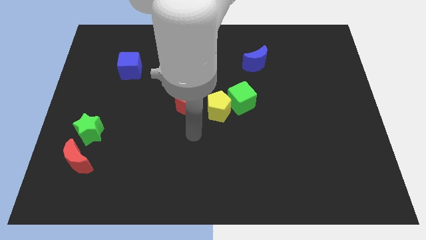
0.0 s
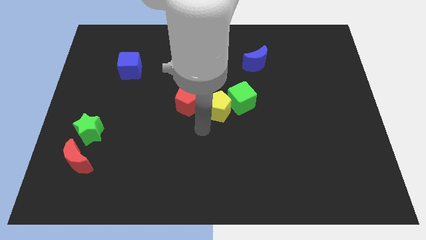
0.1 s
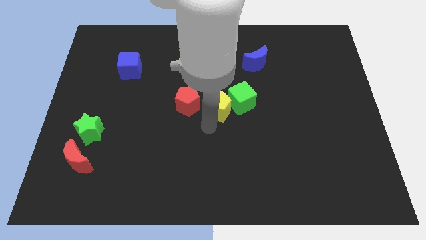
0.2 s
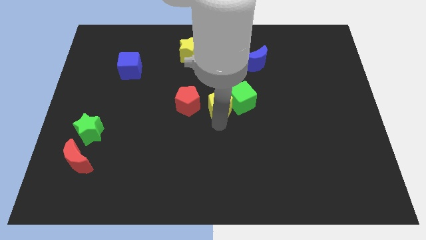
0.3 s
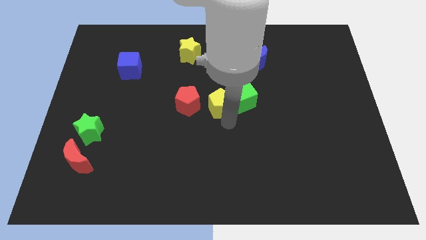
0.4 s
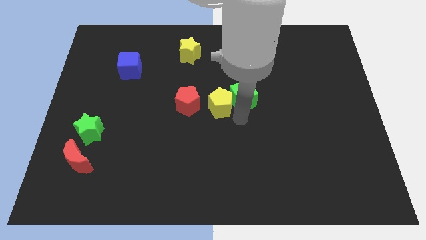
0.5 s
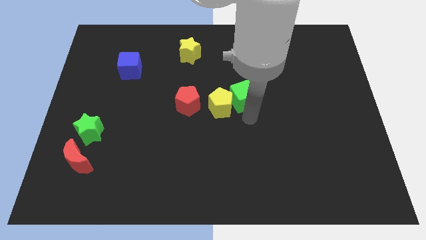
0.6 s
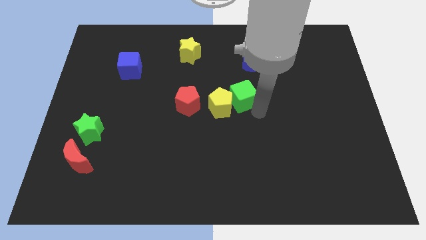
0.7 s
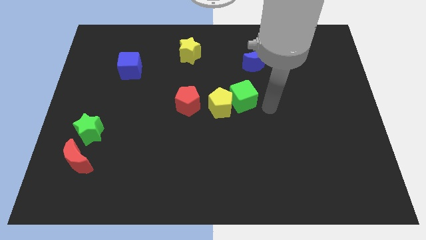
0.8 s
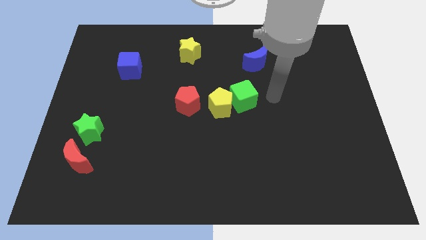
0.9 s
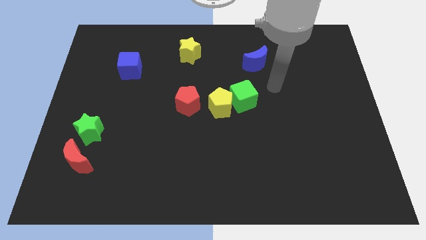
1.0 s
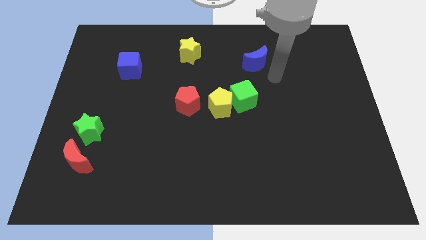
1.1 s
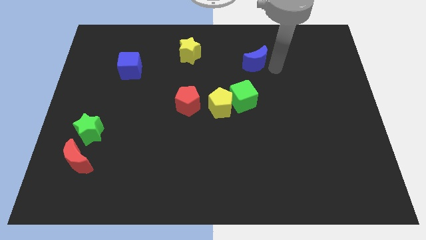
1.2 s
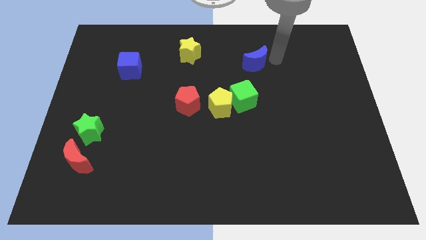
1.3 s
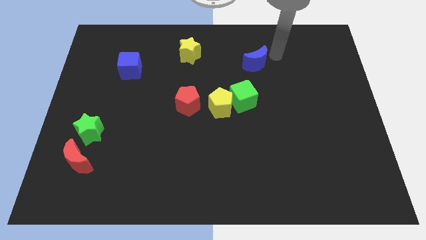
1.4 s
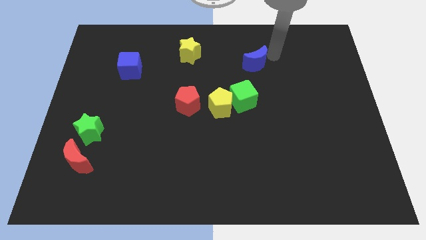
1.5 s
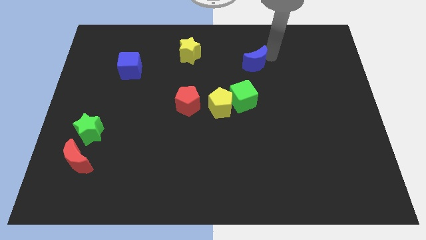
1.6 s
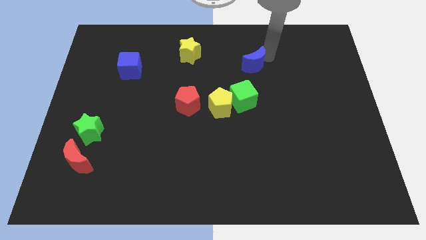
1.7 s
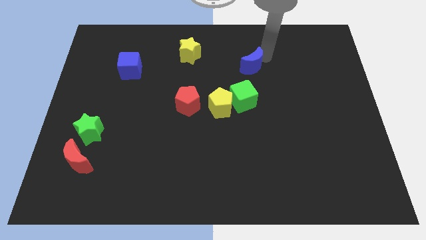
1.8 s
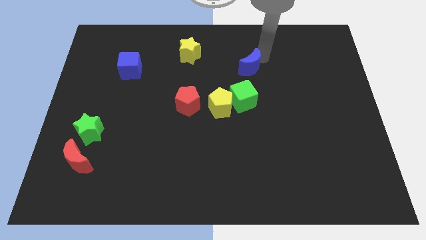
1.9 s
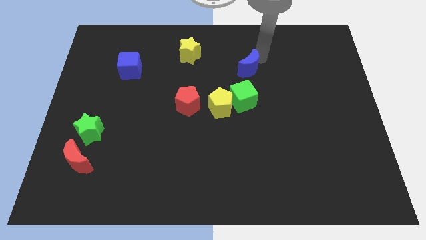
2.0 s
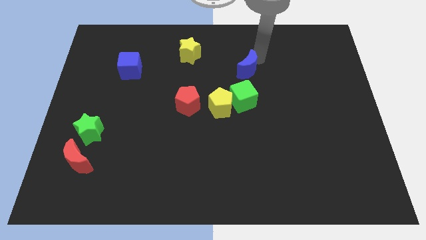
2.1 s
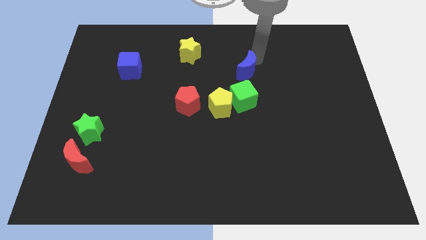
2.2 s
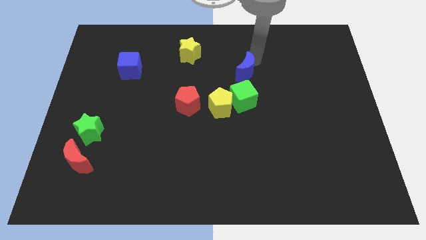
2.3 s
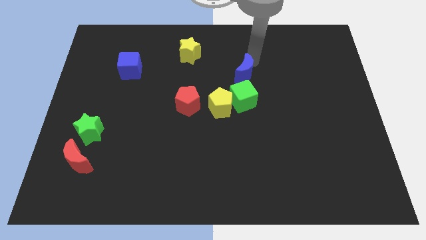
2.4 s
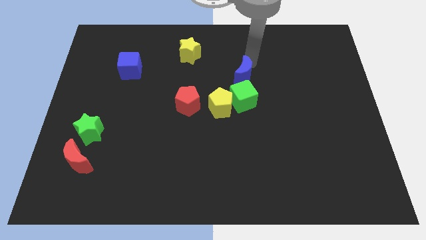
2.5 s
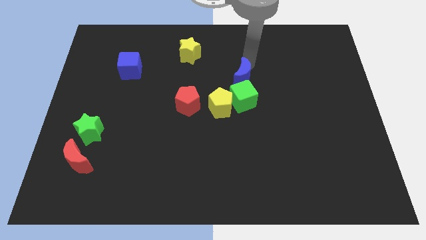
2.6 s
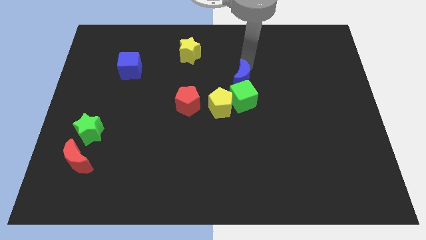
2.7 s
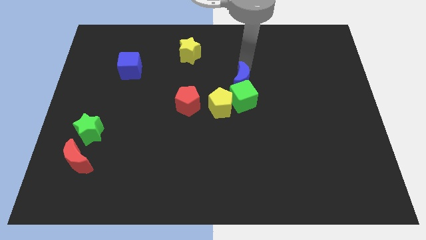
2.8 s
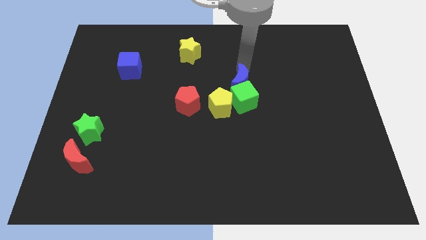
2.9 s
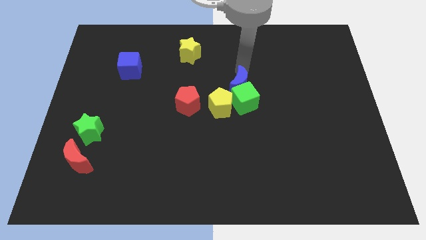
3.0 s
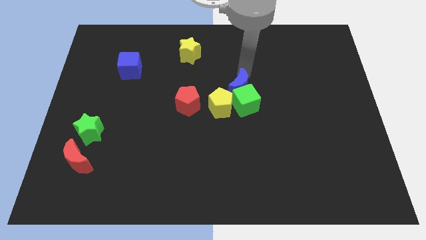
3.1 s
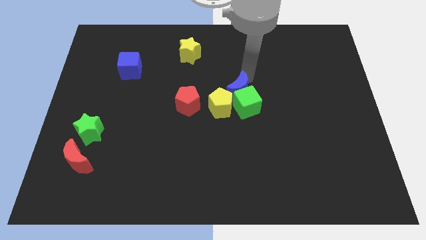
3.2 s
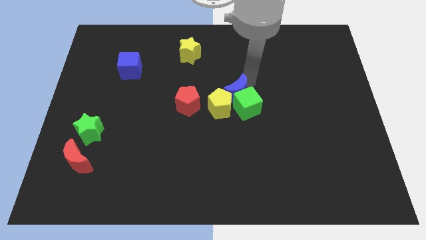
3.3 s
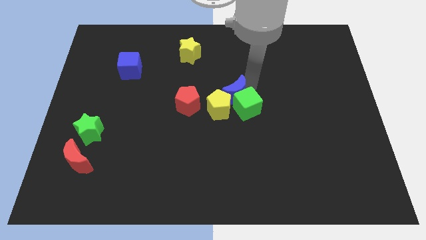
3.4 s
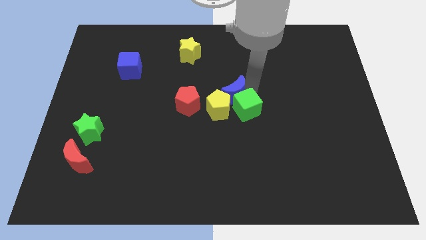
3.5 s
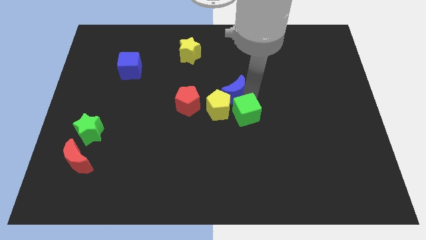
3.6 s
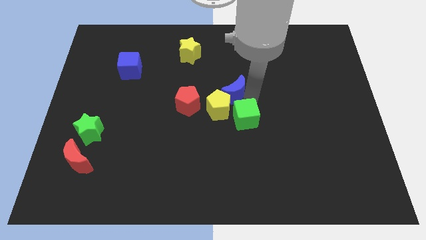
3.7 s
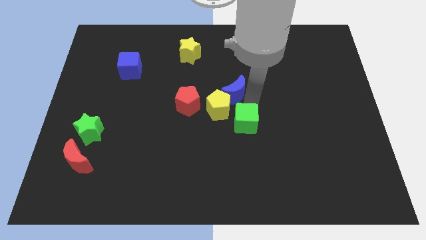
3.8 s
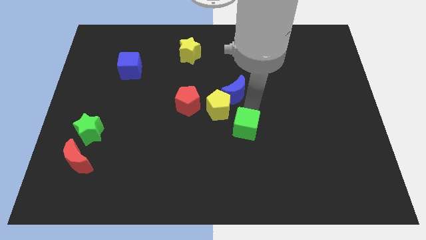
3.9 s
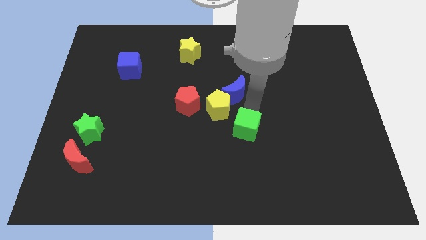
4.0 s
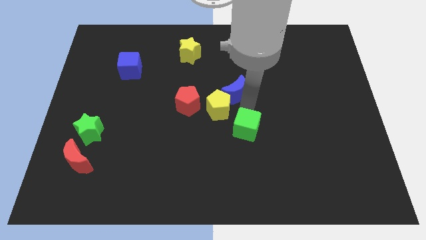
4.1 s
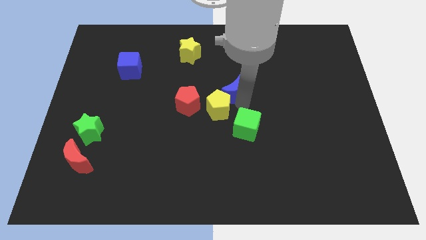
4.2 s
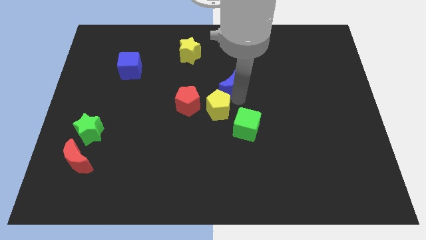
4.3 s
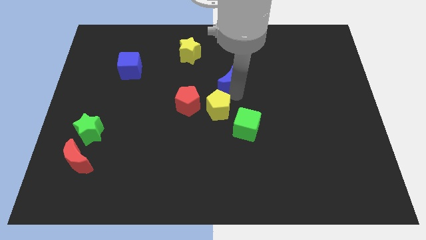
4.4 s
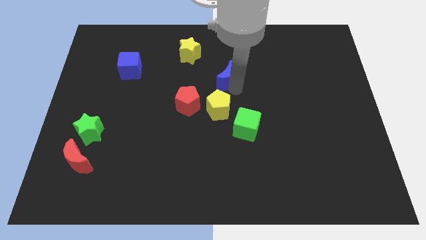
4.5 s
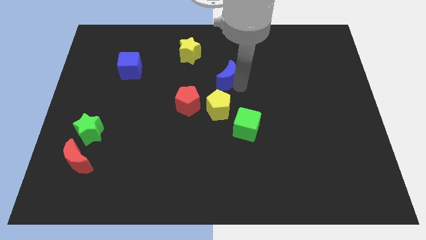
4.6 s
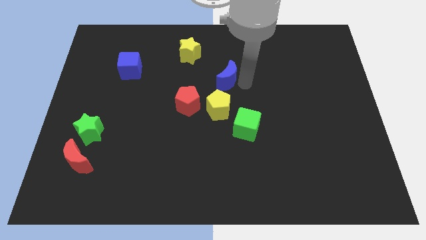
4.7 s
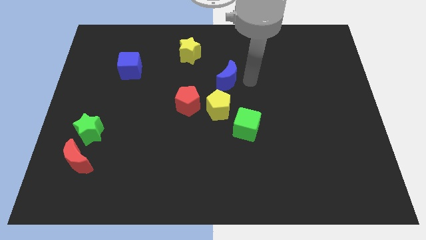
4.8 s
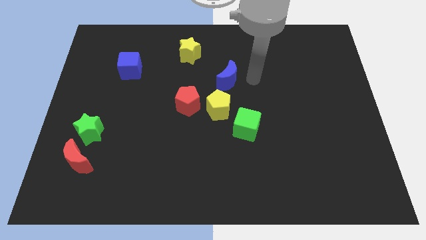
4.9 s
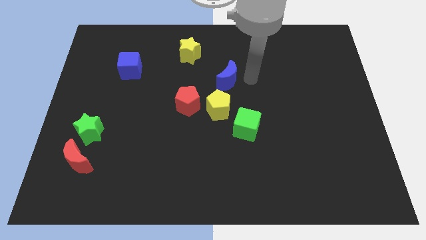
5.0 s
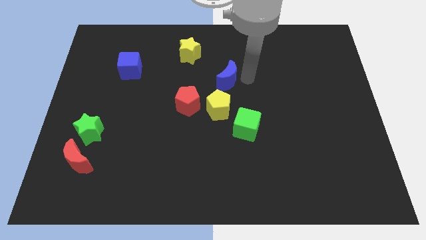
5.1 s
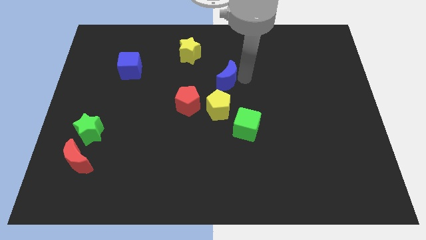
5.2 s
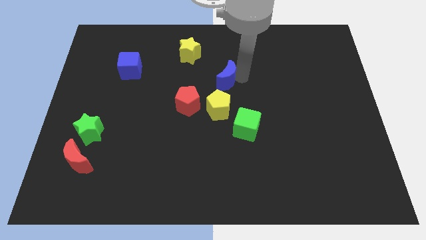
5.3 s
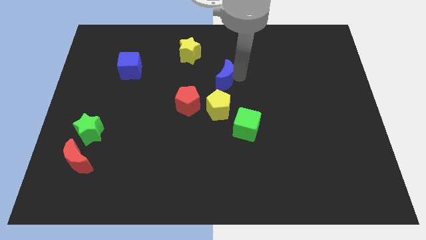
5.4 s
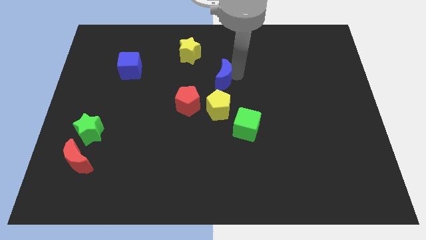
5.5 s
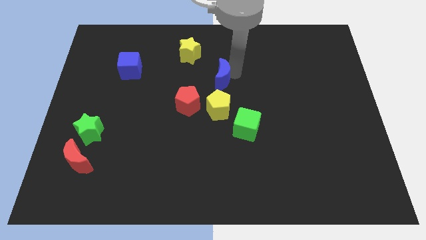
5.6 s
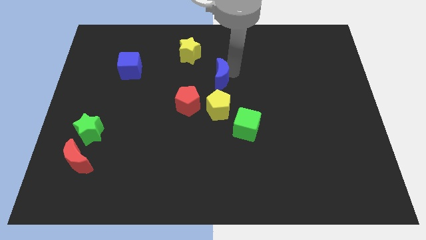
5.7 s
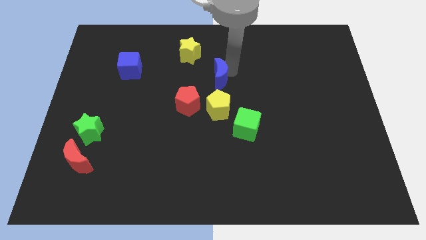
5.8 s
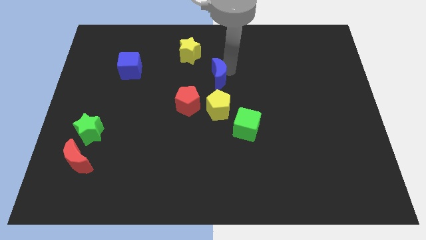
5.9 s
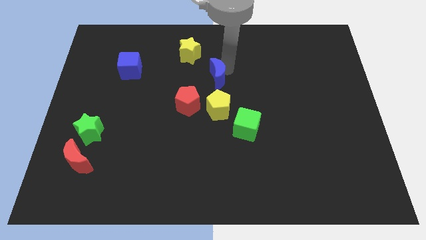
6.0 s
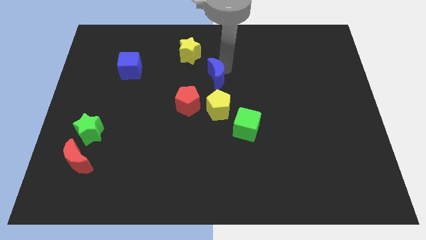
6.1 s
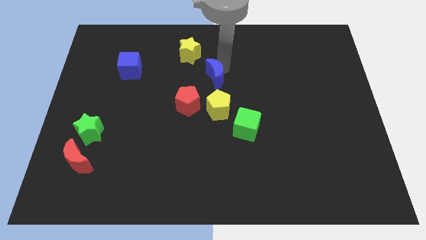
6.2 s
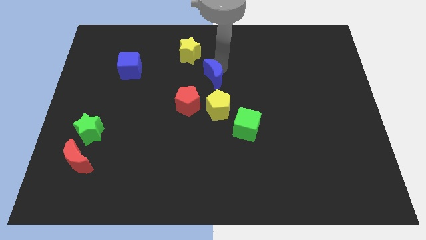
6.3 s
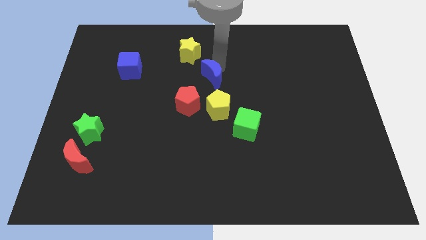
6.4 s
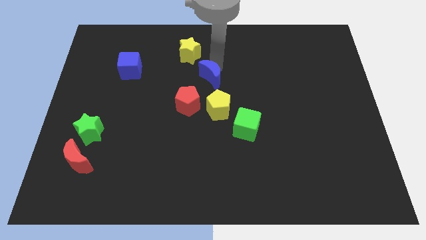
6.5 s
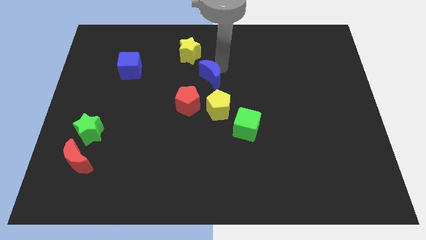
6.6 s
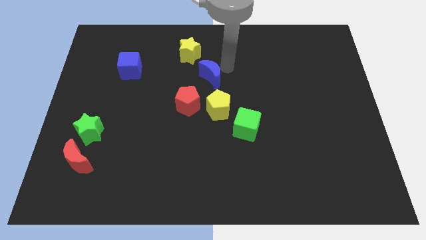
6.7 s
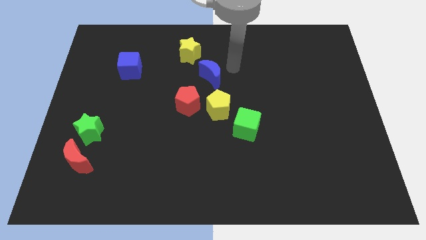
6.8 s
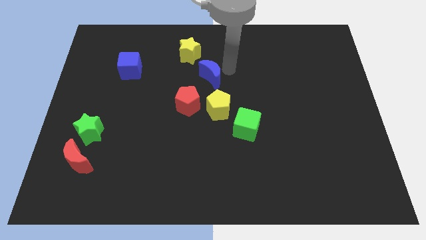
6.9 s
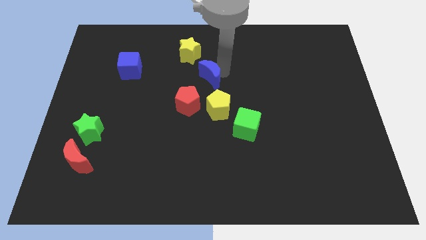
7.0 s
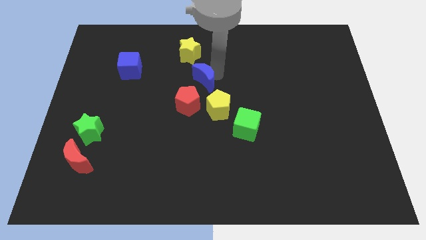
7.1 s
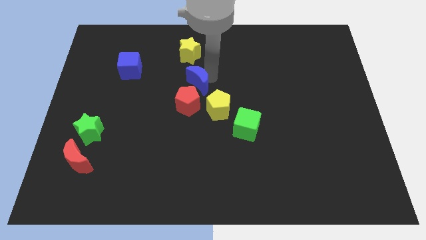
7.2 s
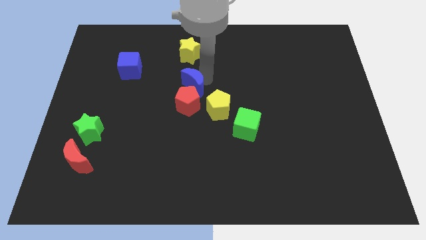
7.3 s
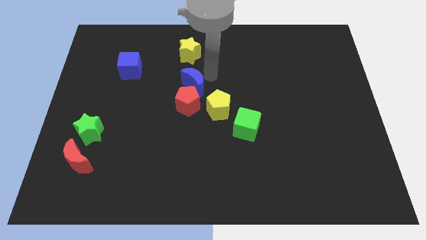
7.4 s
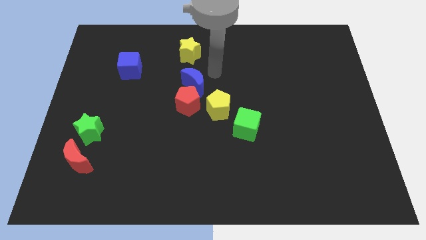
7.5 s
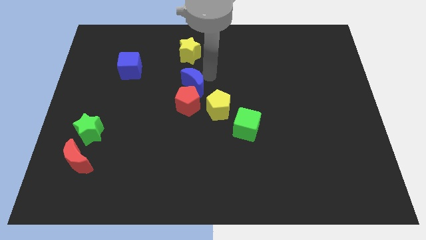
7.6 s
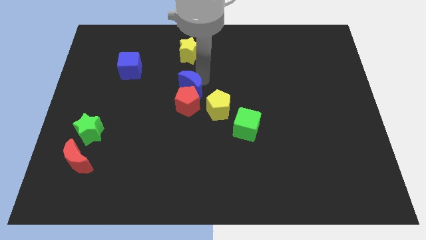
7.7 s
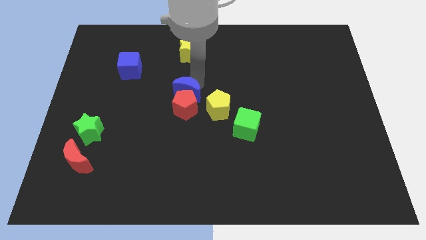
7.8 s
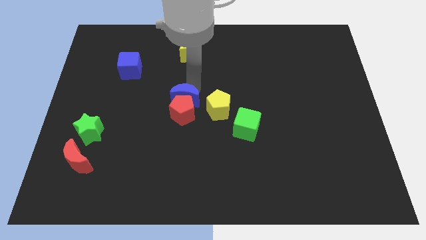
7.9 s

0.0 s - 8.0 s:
move the blue moon down and left diagonally

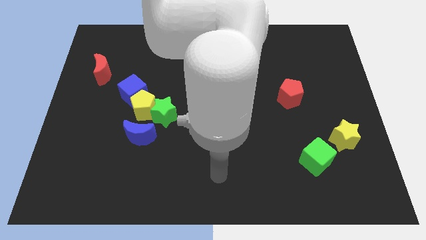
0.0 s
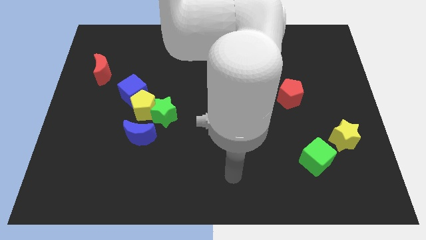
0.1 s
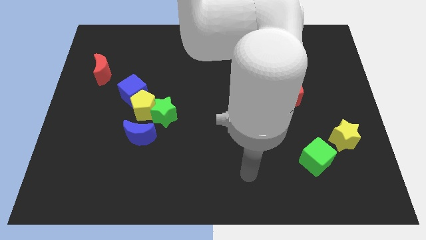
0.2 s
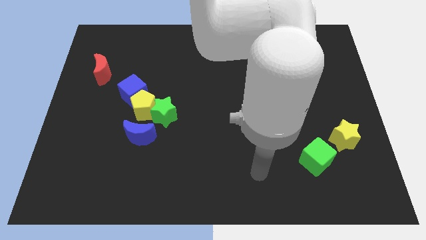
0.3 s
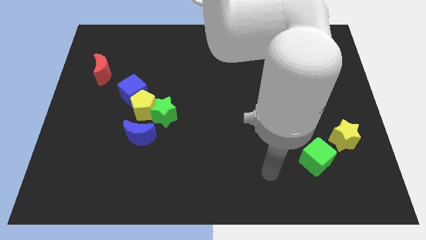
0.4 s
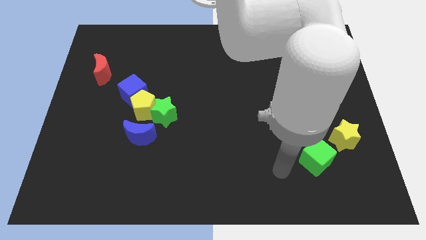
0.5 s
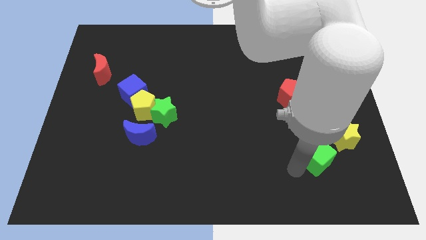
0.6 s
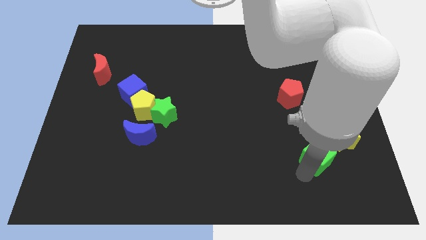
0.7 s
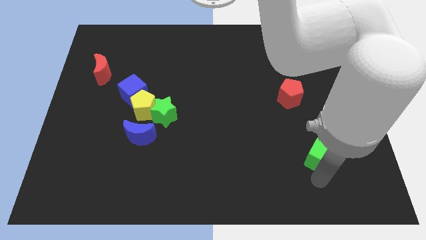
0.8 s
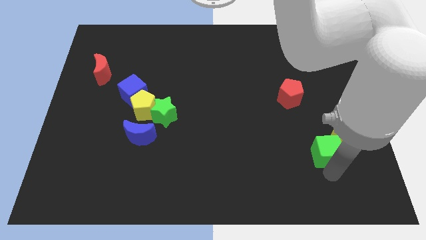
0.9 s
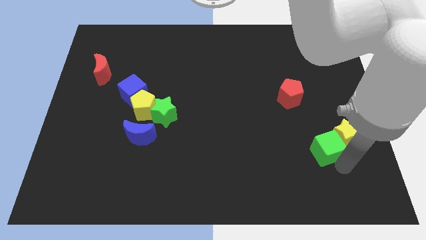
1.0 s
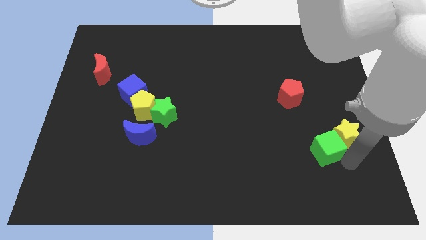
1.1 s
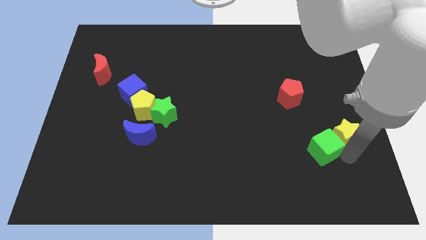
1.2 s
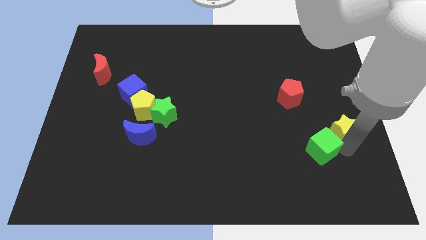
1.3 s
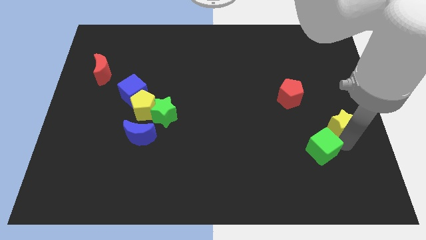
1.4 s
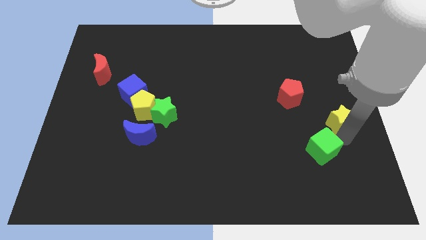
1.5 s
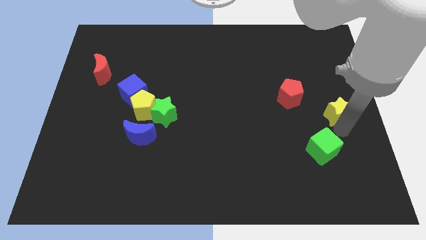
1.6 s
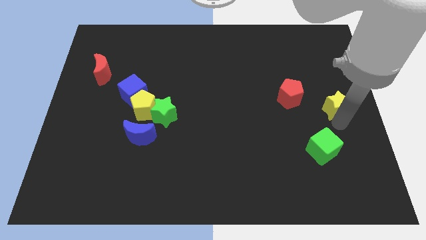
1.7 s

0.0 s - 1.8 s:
push the yellow star up a bit
